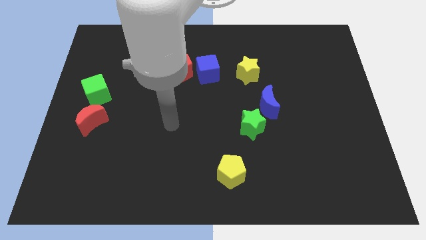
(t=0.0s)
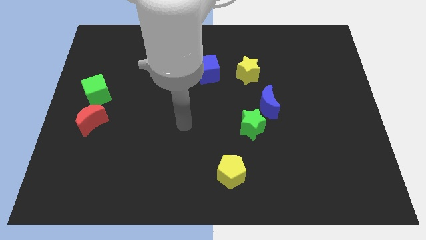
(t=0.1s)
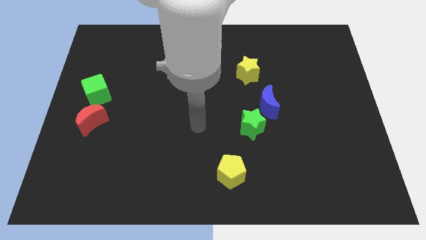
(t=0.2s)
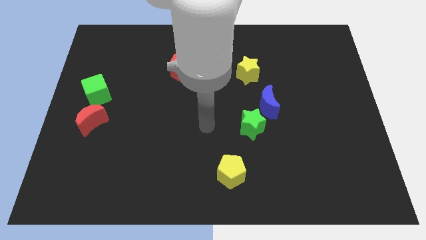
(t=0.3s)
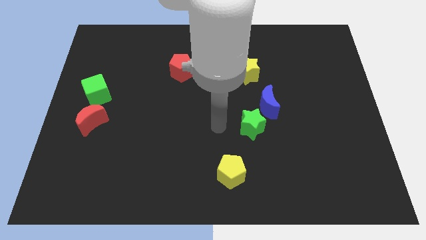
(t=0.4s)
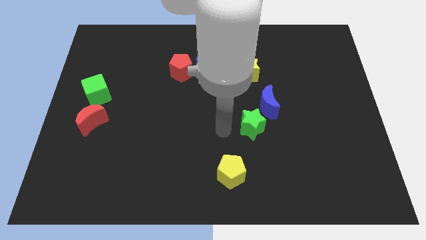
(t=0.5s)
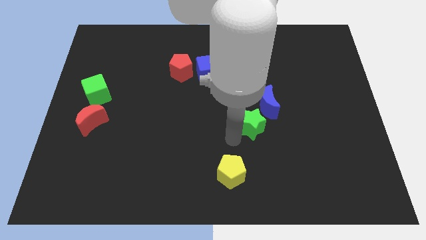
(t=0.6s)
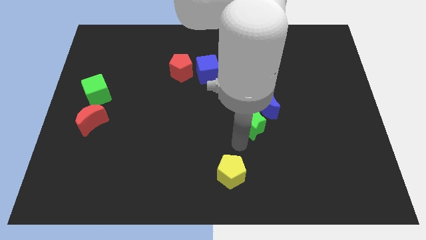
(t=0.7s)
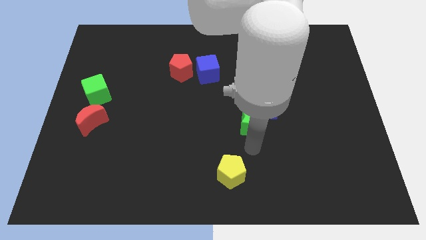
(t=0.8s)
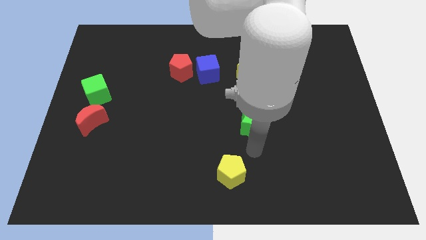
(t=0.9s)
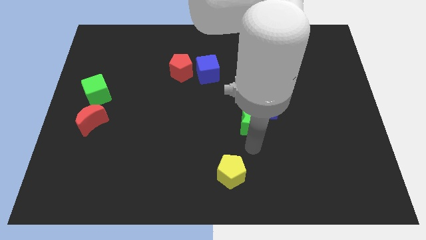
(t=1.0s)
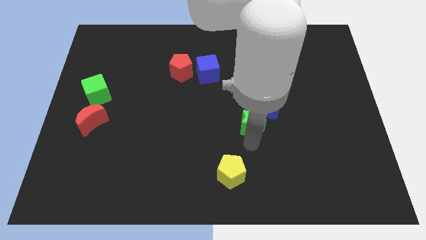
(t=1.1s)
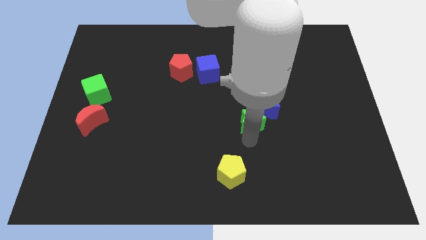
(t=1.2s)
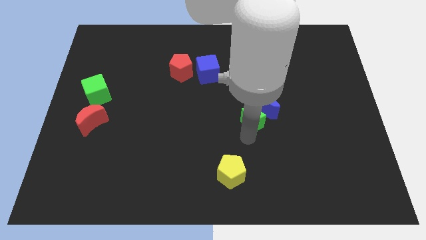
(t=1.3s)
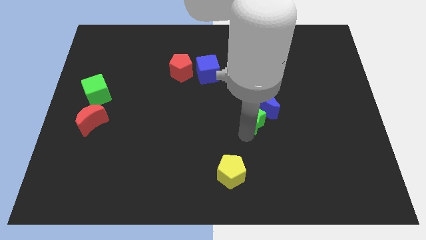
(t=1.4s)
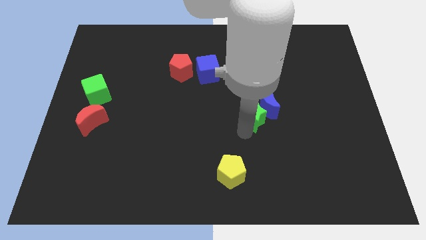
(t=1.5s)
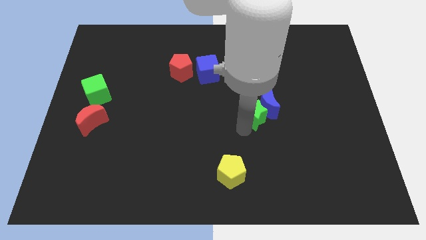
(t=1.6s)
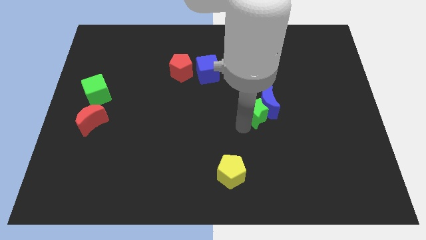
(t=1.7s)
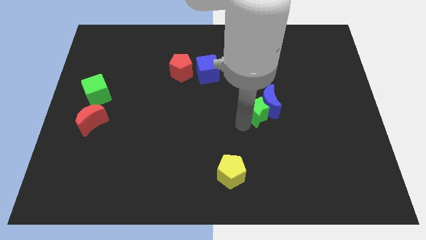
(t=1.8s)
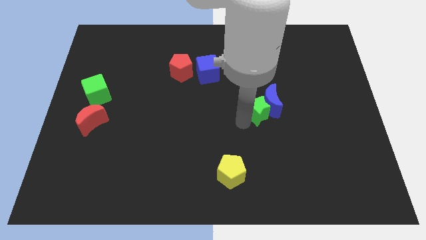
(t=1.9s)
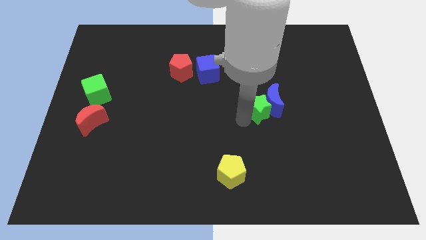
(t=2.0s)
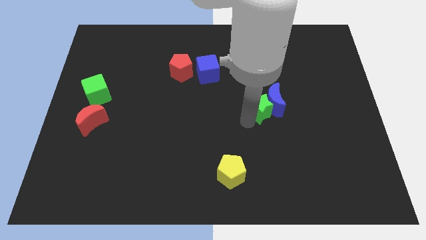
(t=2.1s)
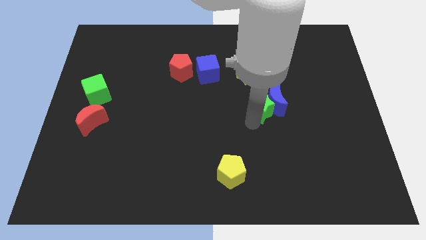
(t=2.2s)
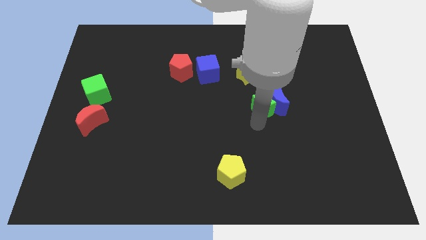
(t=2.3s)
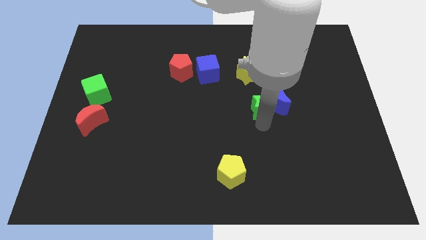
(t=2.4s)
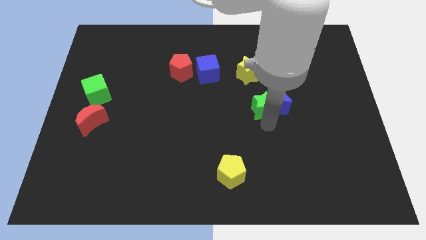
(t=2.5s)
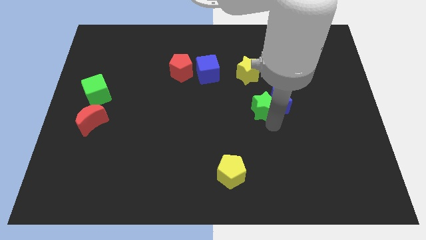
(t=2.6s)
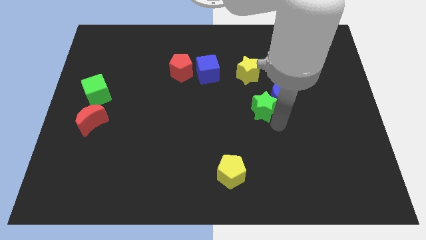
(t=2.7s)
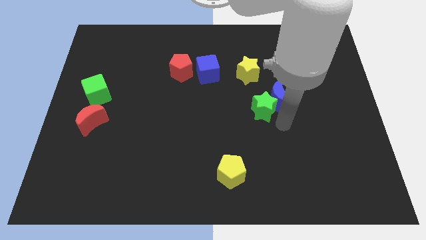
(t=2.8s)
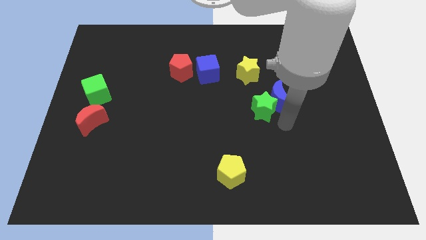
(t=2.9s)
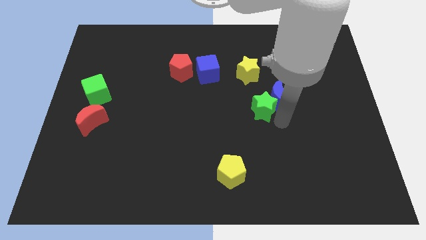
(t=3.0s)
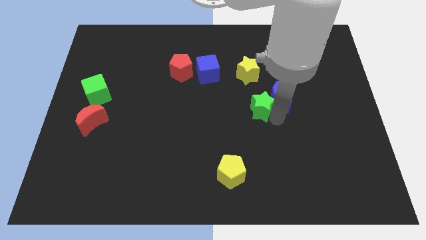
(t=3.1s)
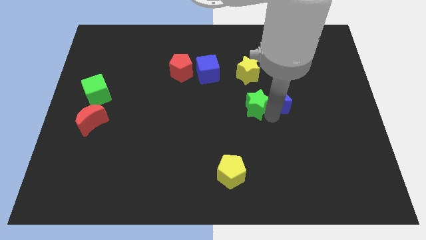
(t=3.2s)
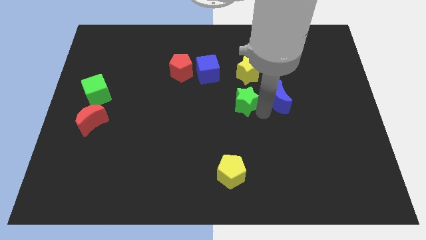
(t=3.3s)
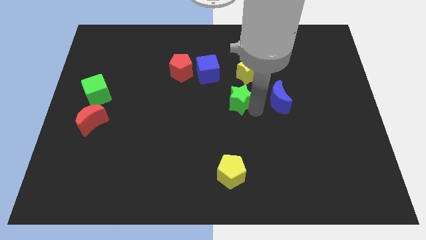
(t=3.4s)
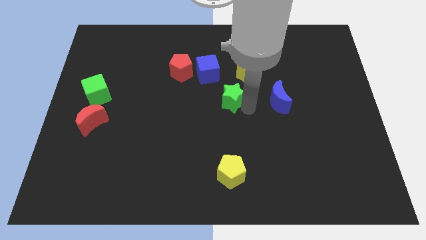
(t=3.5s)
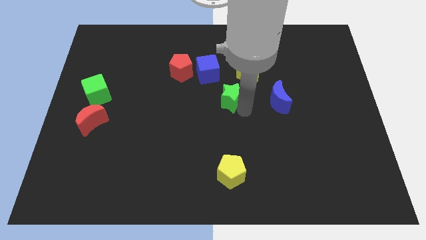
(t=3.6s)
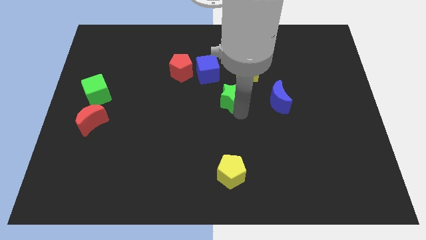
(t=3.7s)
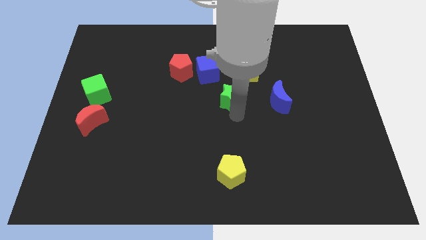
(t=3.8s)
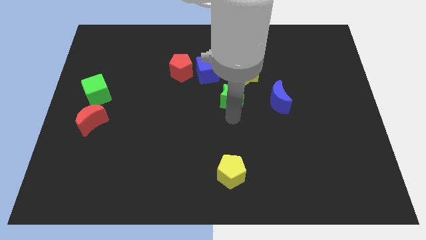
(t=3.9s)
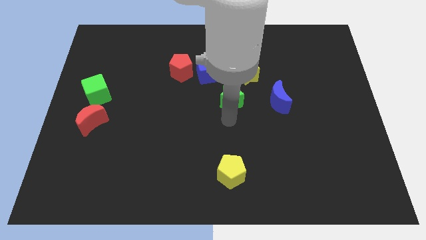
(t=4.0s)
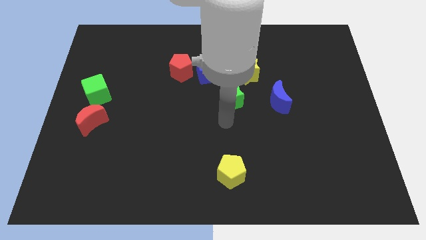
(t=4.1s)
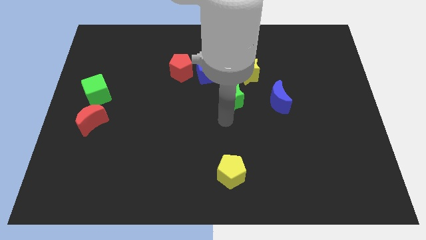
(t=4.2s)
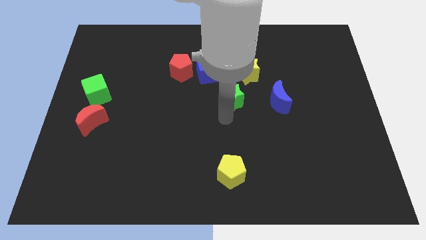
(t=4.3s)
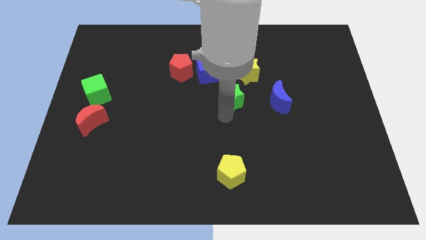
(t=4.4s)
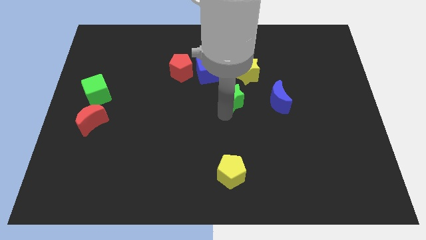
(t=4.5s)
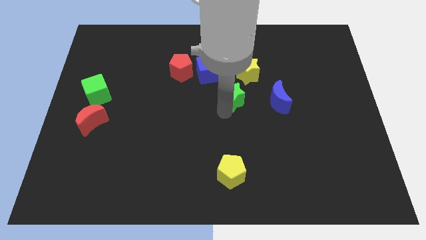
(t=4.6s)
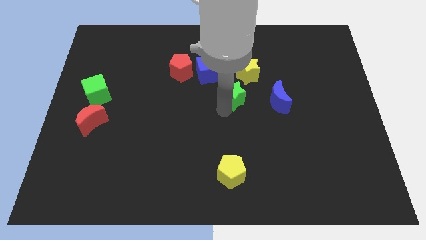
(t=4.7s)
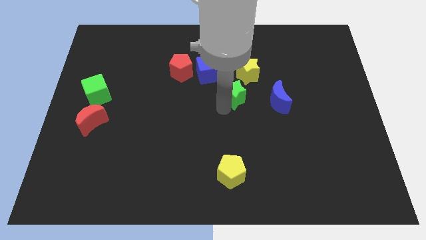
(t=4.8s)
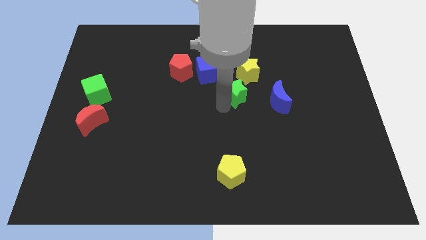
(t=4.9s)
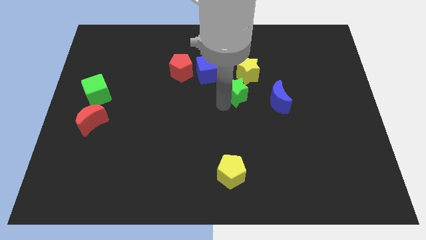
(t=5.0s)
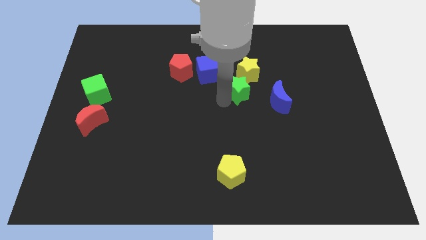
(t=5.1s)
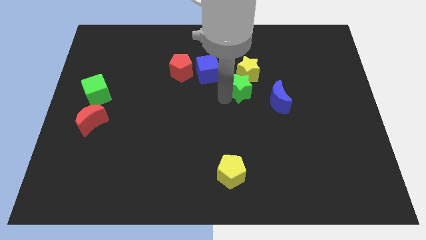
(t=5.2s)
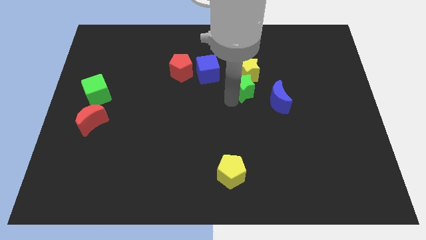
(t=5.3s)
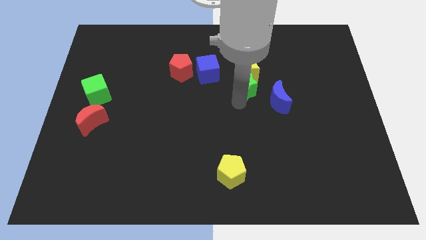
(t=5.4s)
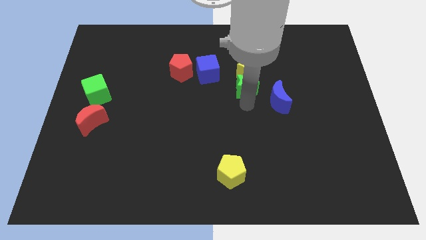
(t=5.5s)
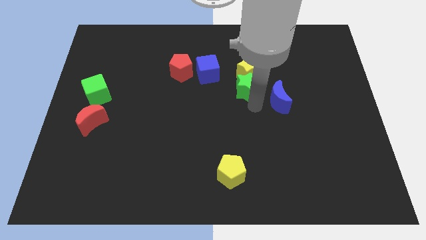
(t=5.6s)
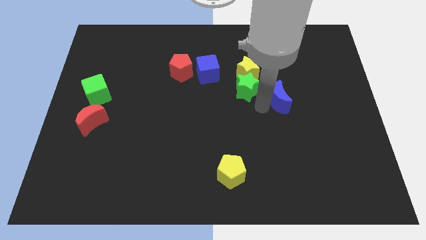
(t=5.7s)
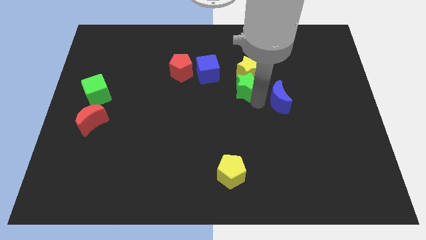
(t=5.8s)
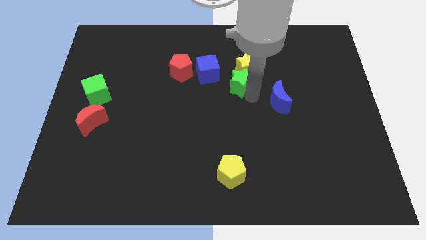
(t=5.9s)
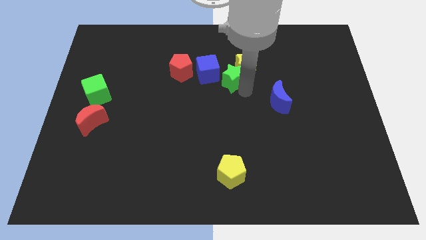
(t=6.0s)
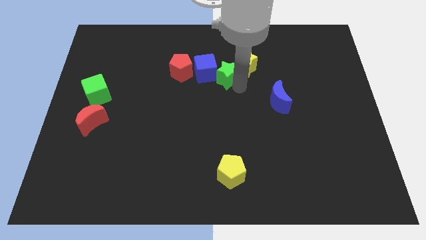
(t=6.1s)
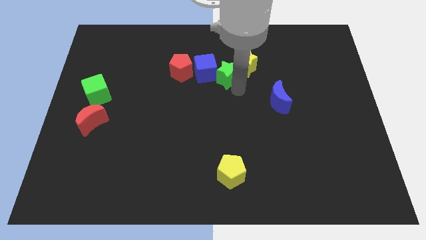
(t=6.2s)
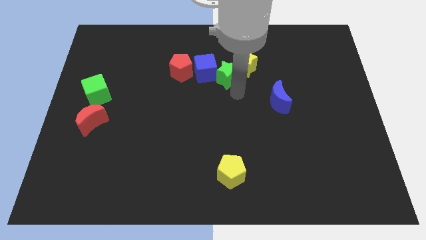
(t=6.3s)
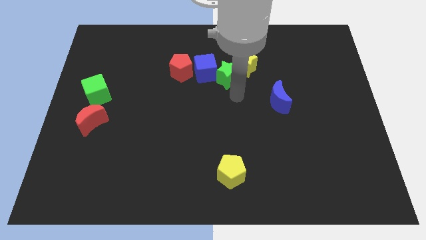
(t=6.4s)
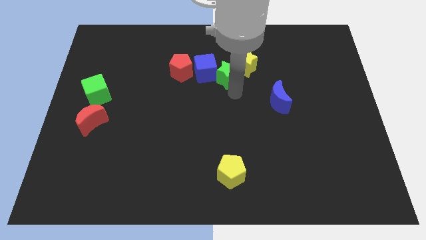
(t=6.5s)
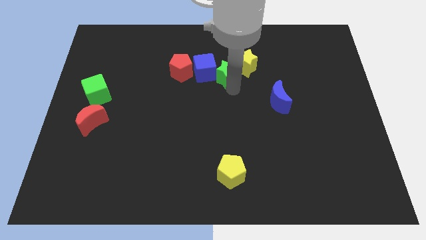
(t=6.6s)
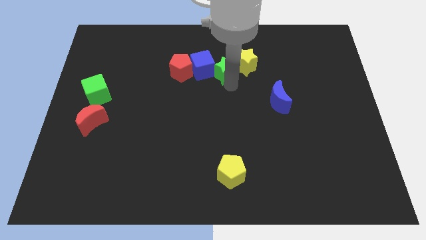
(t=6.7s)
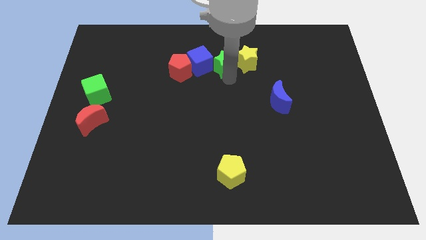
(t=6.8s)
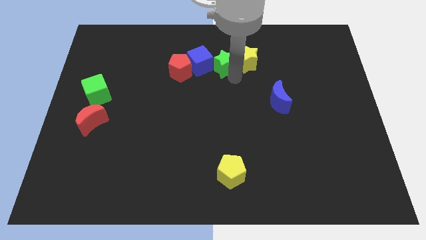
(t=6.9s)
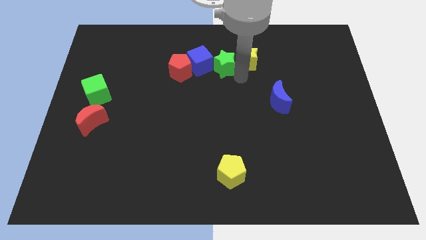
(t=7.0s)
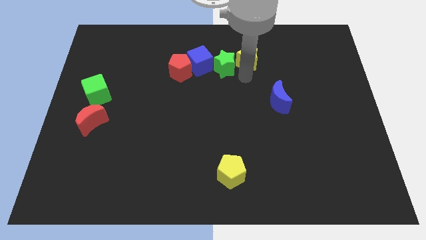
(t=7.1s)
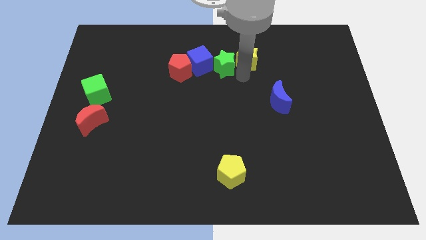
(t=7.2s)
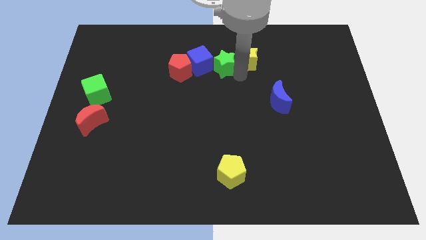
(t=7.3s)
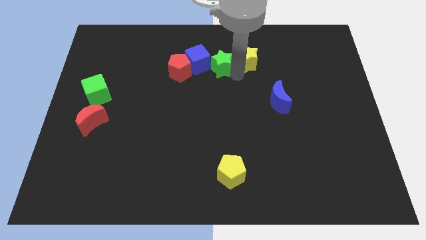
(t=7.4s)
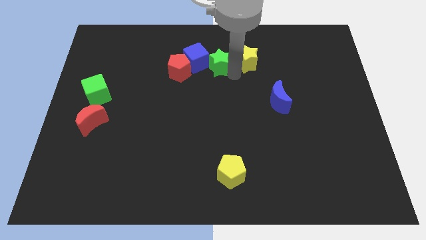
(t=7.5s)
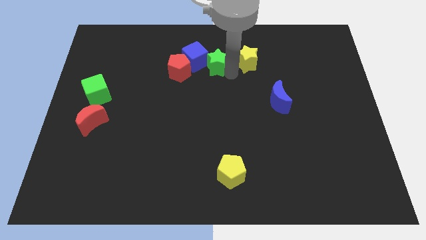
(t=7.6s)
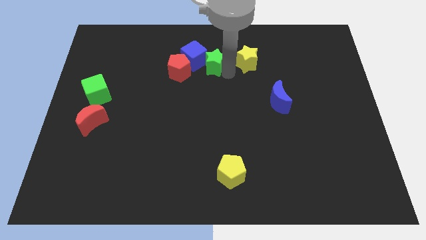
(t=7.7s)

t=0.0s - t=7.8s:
move the green star diagonally up and to the right of the red pentagon
